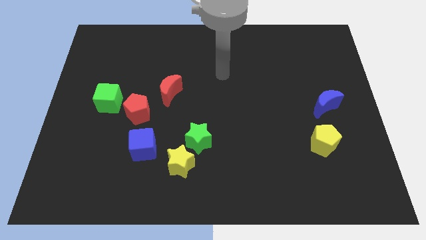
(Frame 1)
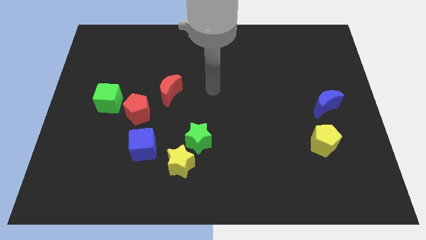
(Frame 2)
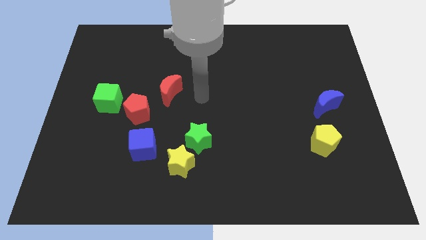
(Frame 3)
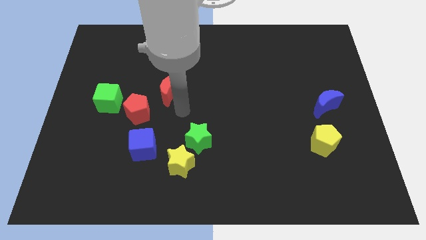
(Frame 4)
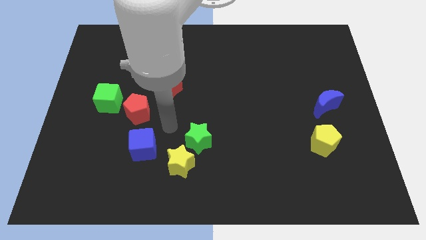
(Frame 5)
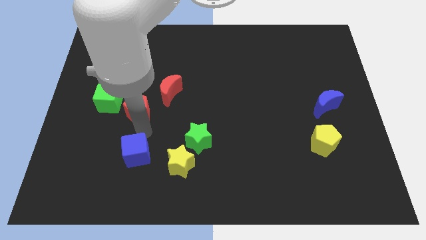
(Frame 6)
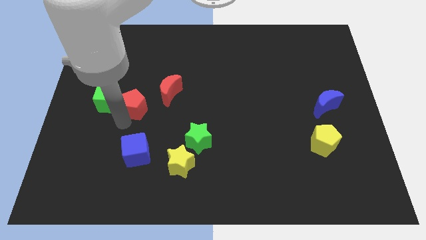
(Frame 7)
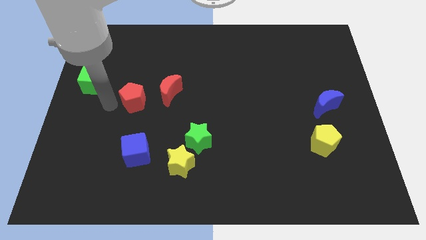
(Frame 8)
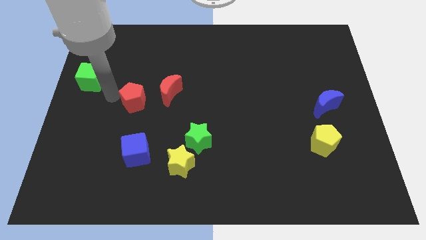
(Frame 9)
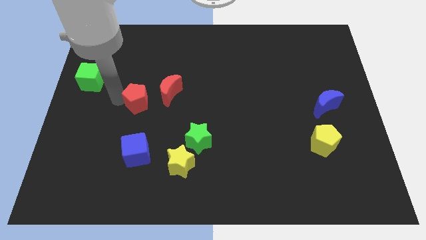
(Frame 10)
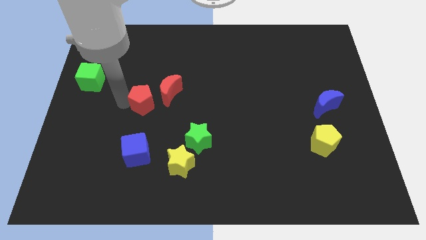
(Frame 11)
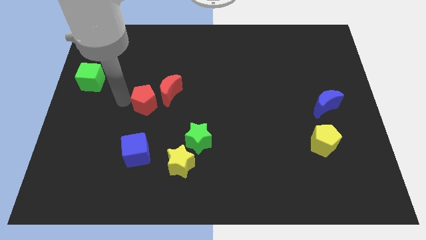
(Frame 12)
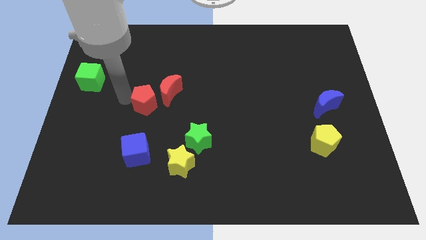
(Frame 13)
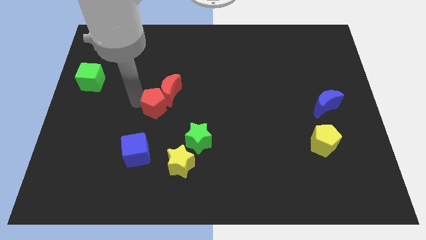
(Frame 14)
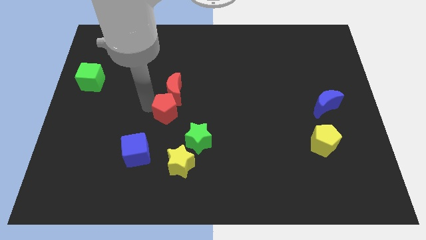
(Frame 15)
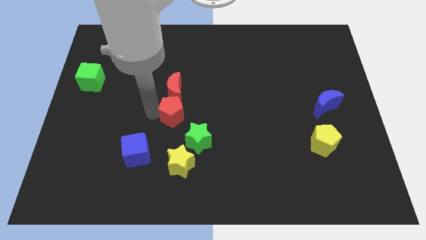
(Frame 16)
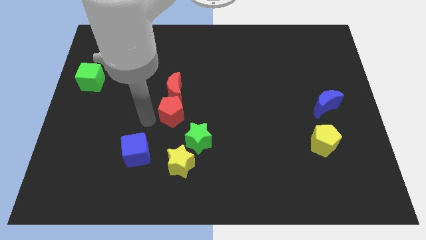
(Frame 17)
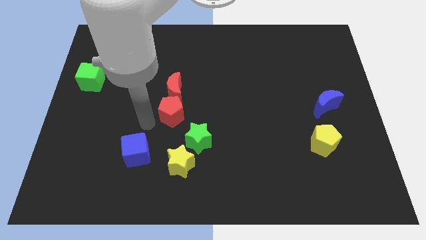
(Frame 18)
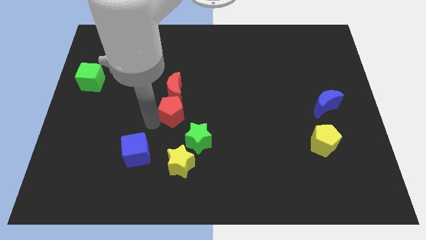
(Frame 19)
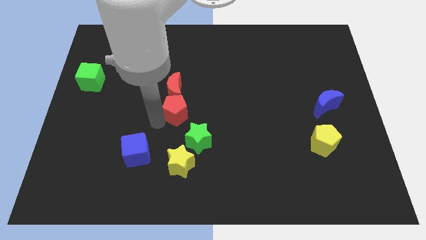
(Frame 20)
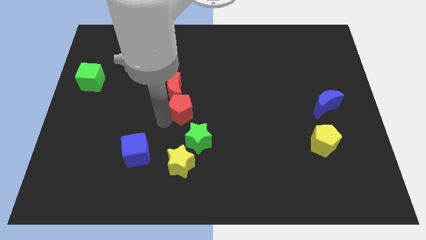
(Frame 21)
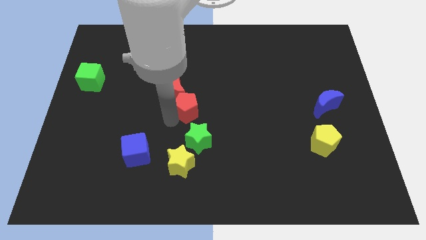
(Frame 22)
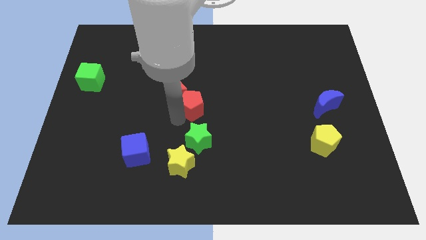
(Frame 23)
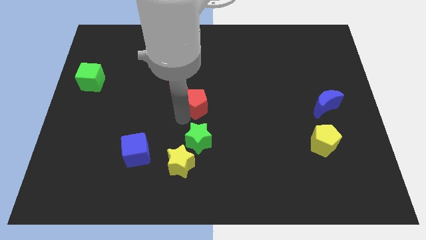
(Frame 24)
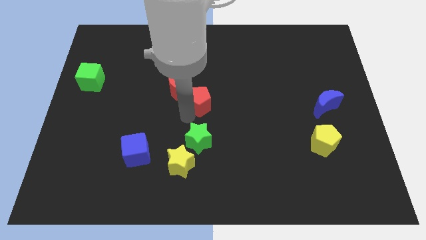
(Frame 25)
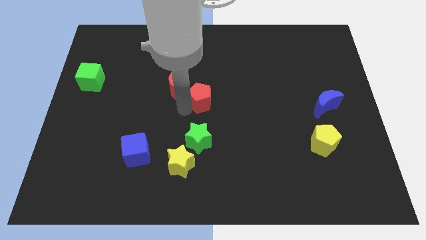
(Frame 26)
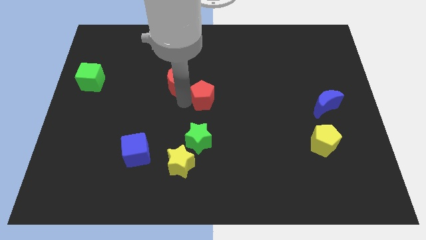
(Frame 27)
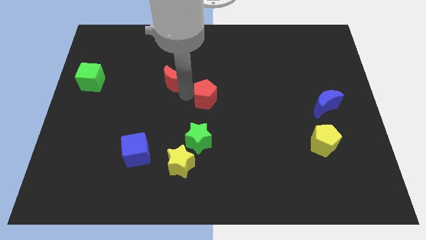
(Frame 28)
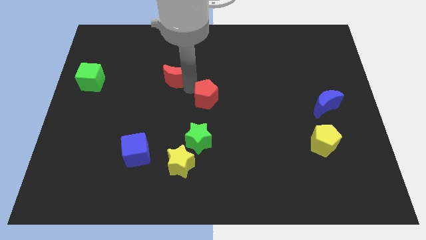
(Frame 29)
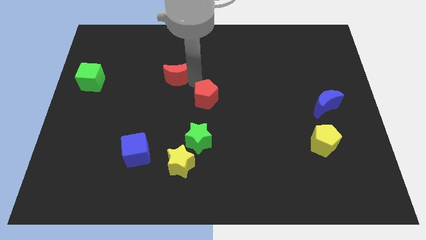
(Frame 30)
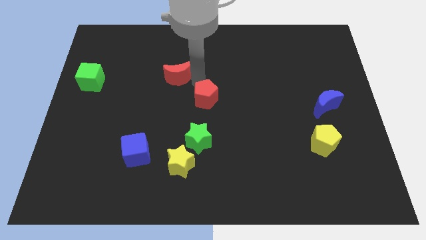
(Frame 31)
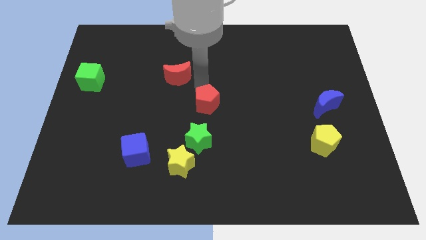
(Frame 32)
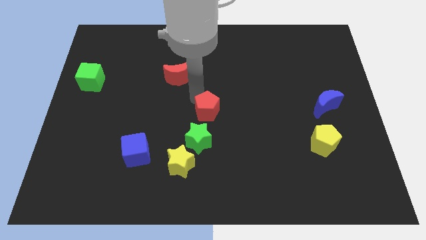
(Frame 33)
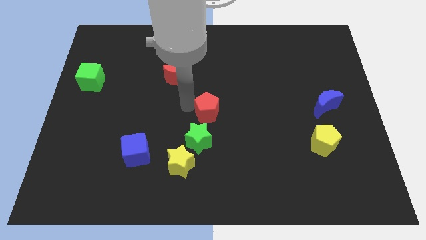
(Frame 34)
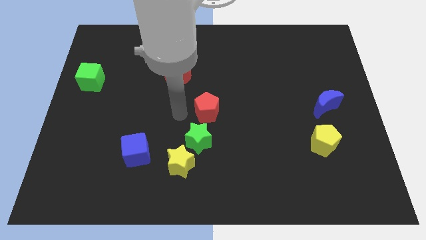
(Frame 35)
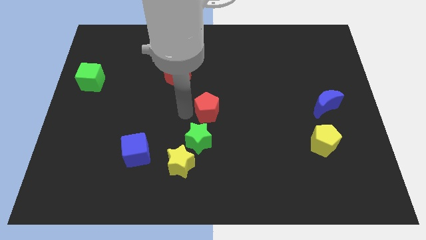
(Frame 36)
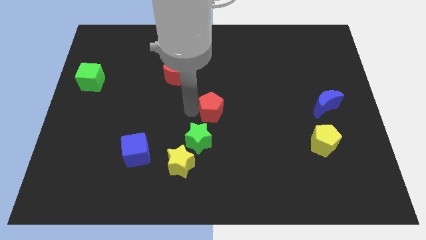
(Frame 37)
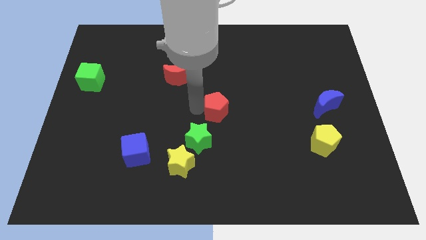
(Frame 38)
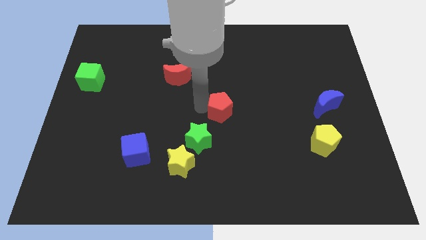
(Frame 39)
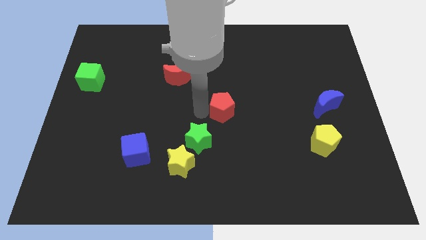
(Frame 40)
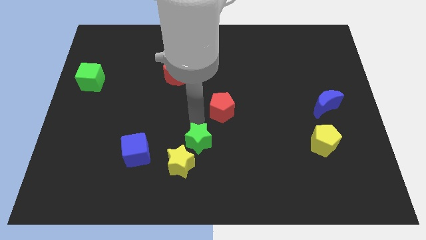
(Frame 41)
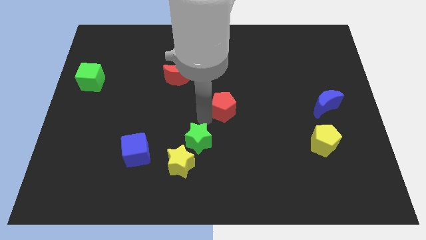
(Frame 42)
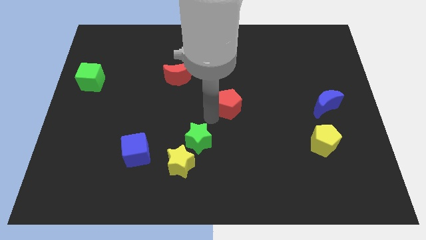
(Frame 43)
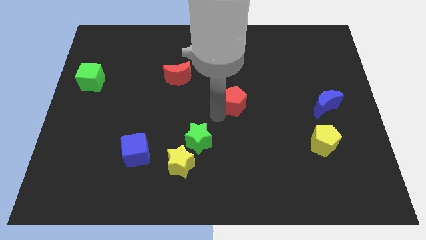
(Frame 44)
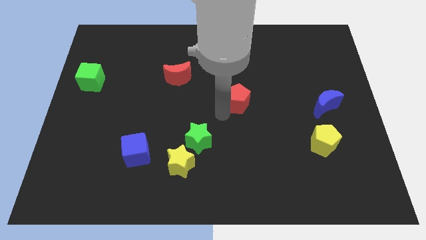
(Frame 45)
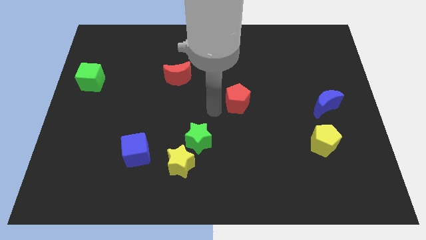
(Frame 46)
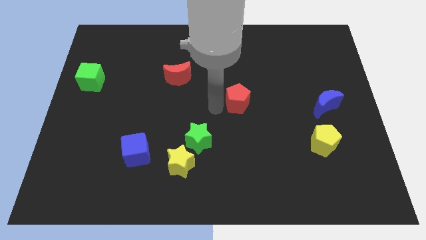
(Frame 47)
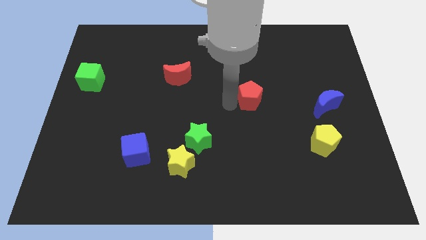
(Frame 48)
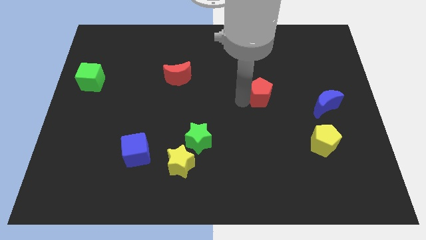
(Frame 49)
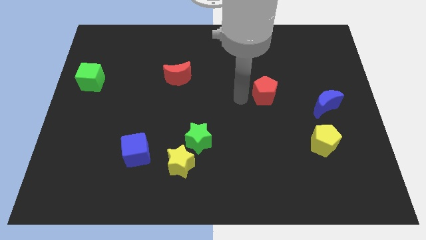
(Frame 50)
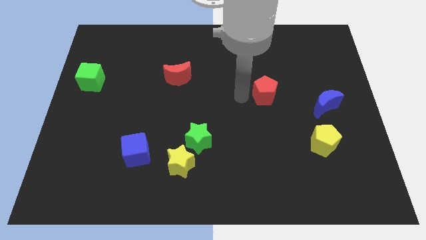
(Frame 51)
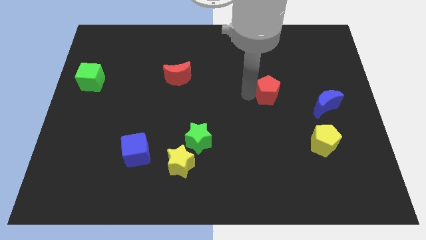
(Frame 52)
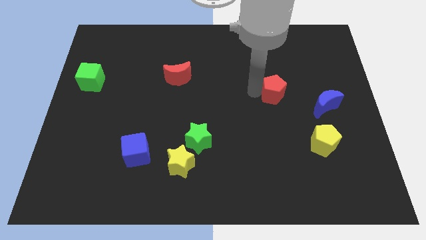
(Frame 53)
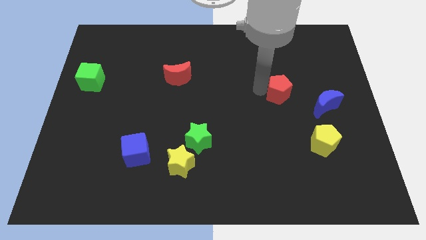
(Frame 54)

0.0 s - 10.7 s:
put the red pentagon to the top left of the blue moon
